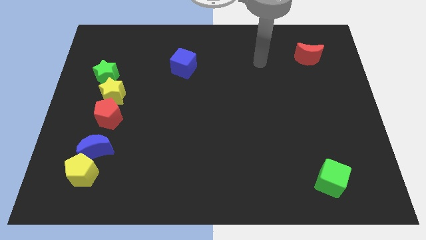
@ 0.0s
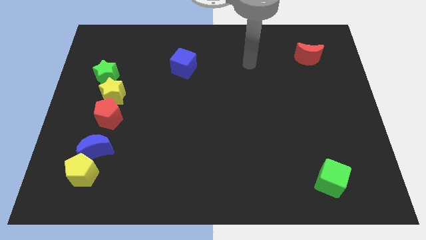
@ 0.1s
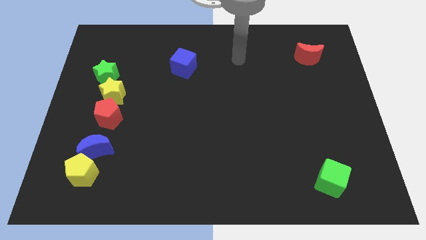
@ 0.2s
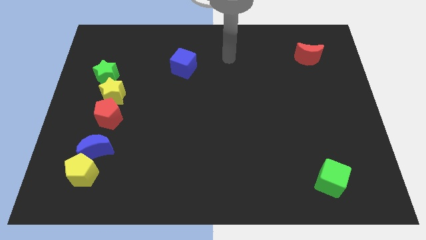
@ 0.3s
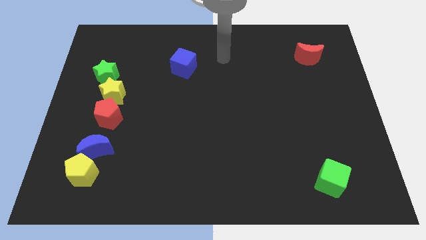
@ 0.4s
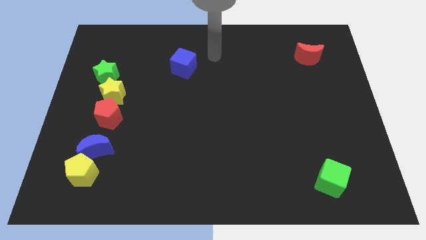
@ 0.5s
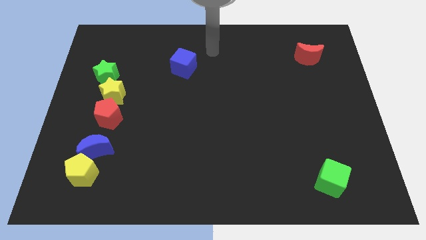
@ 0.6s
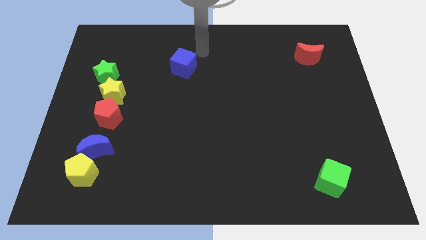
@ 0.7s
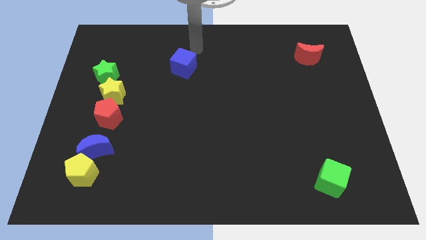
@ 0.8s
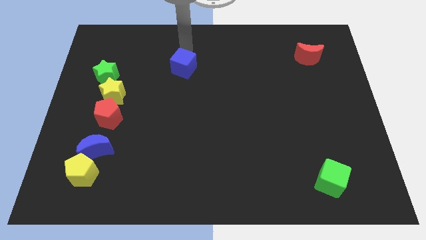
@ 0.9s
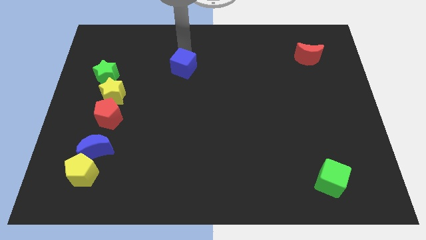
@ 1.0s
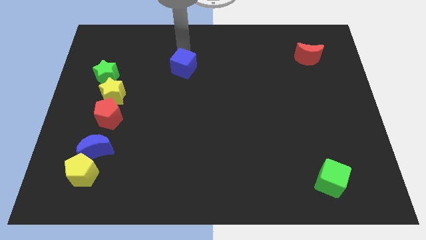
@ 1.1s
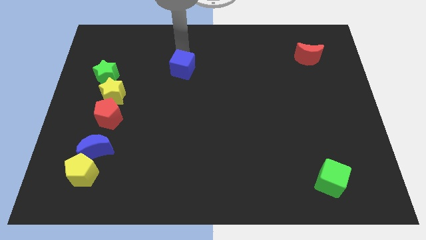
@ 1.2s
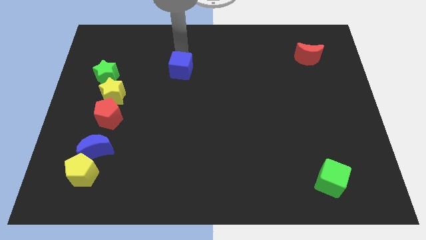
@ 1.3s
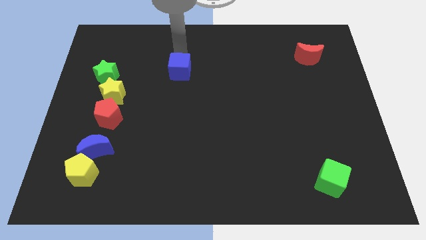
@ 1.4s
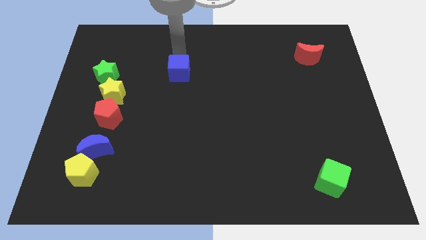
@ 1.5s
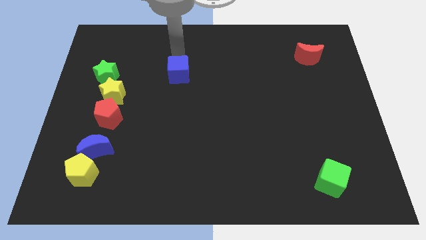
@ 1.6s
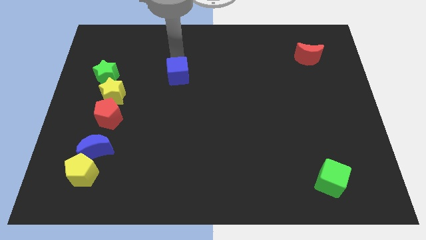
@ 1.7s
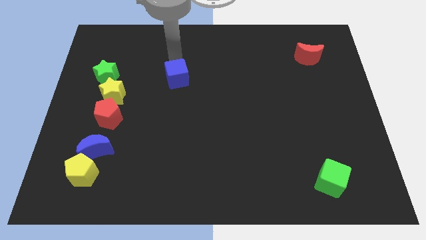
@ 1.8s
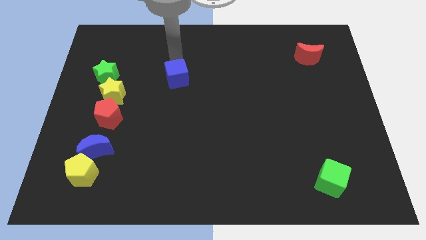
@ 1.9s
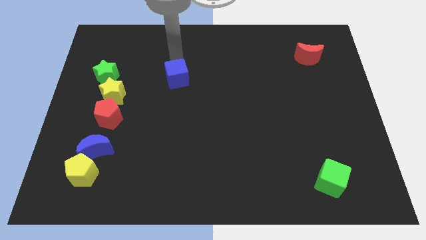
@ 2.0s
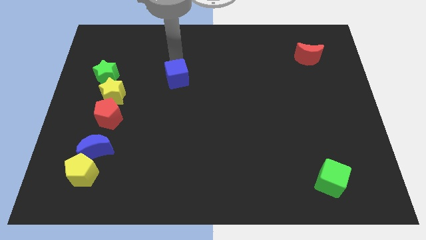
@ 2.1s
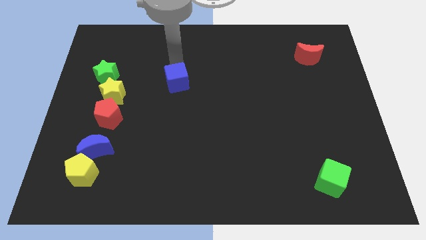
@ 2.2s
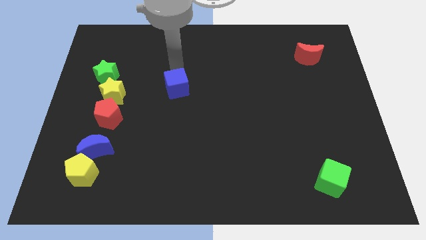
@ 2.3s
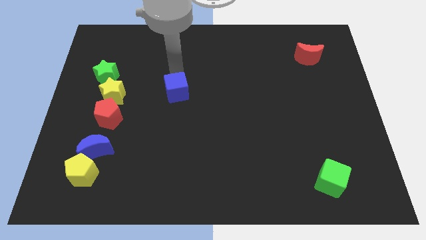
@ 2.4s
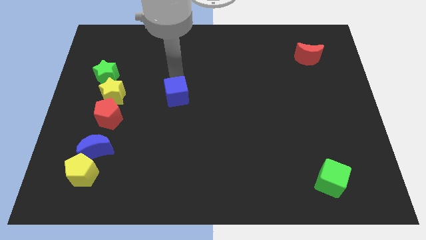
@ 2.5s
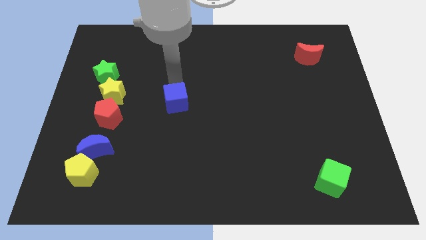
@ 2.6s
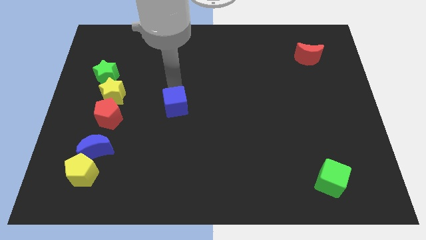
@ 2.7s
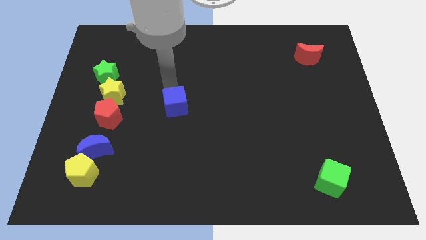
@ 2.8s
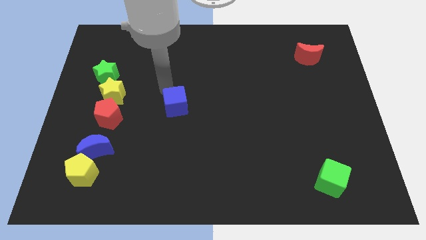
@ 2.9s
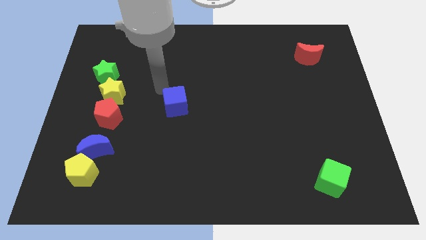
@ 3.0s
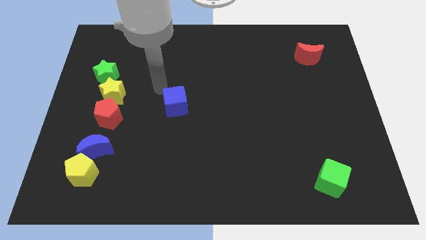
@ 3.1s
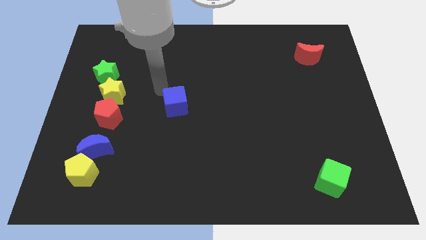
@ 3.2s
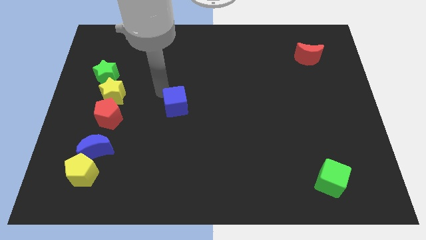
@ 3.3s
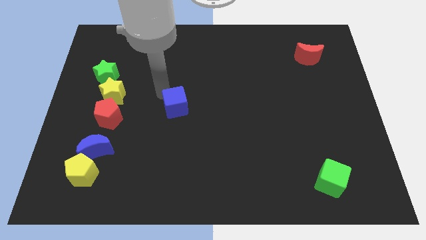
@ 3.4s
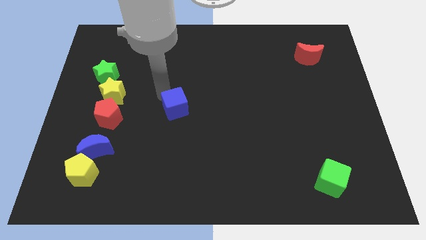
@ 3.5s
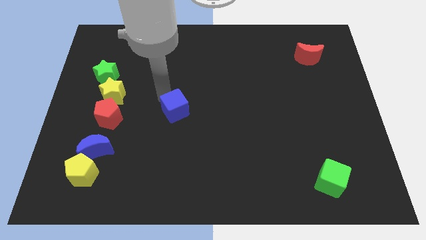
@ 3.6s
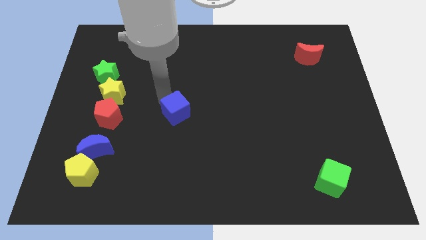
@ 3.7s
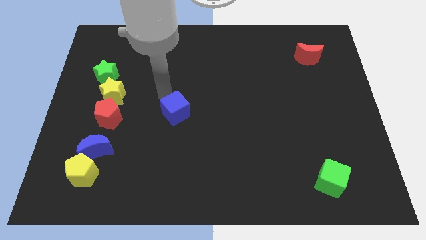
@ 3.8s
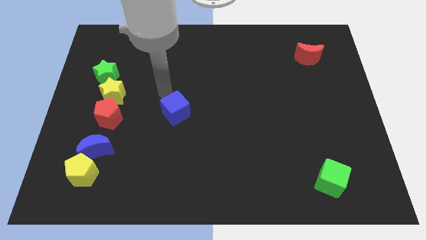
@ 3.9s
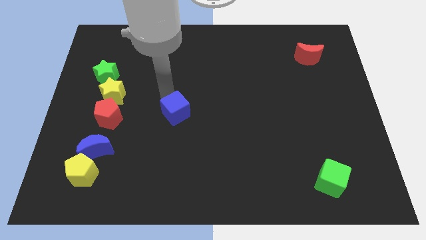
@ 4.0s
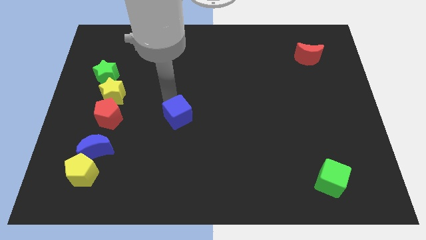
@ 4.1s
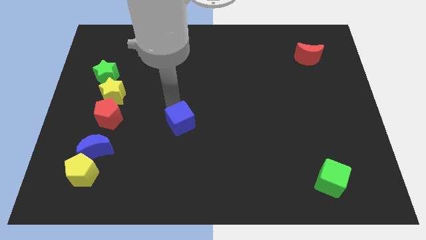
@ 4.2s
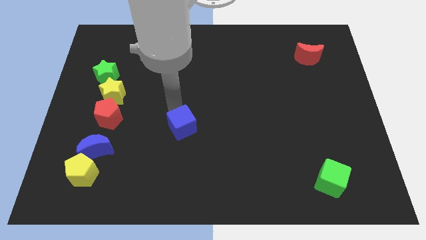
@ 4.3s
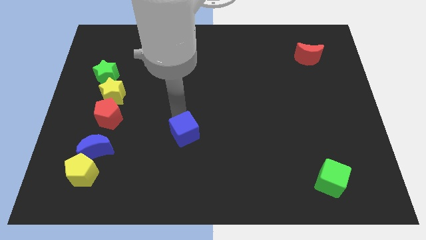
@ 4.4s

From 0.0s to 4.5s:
move the blue cube down

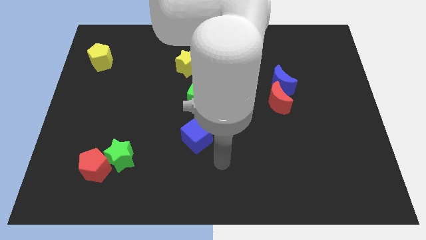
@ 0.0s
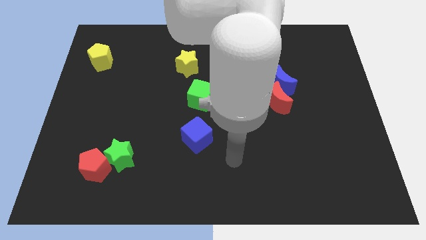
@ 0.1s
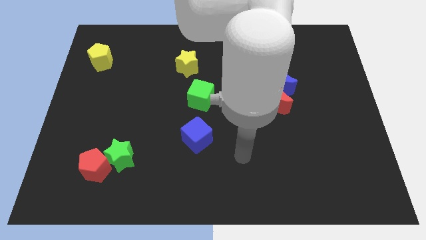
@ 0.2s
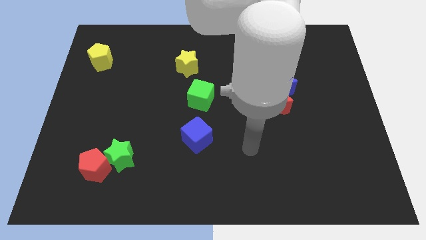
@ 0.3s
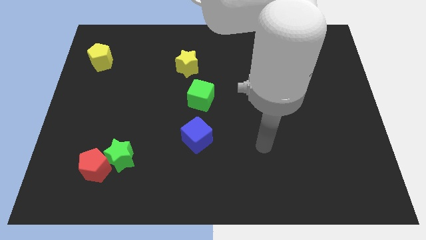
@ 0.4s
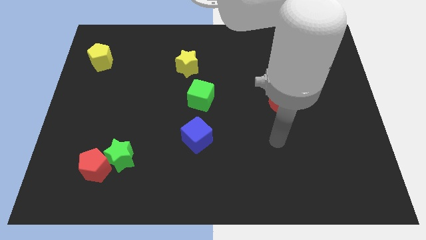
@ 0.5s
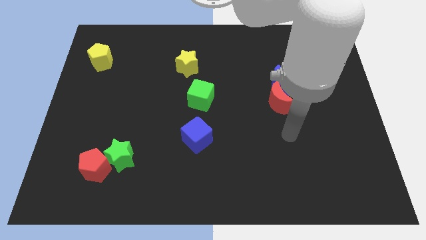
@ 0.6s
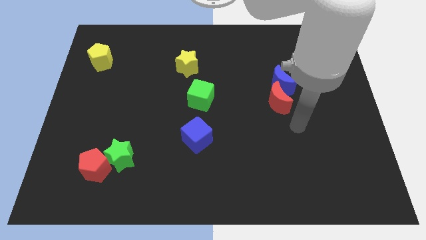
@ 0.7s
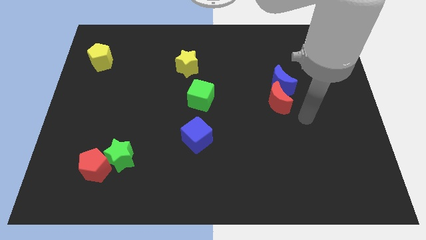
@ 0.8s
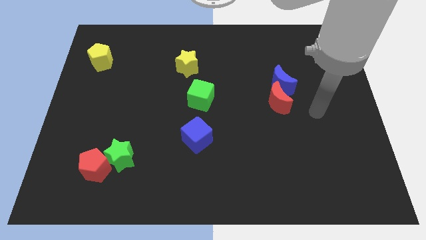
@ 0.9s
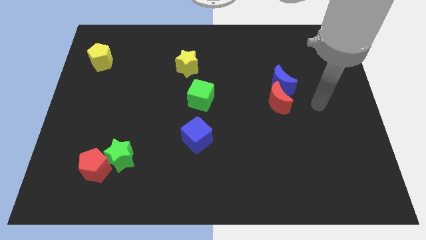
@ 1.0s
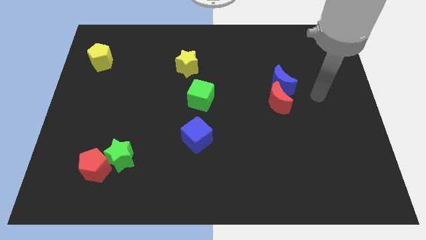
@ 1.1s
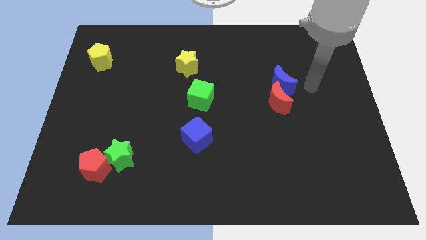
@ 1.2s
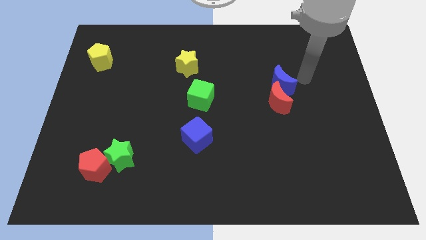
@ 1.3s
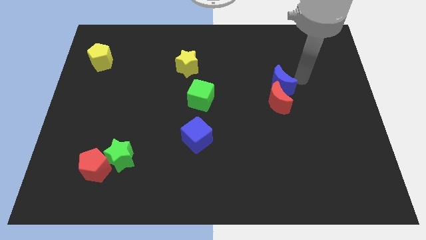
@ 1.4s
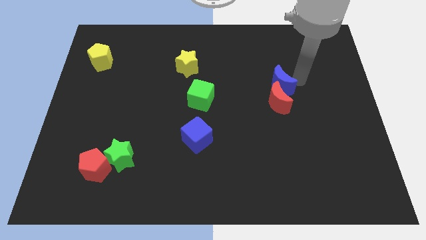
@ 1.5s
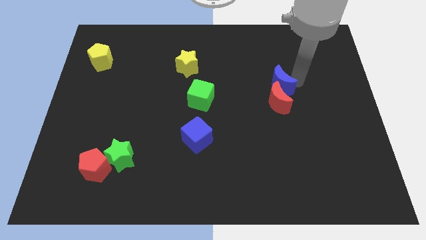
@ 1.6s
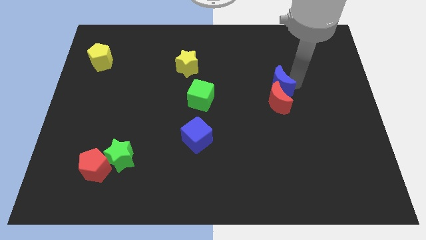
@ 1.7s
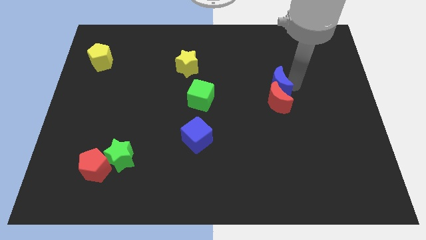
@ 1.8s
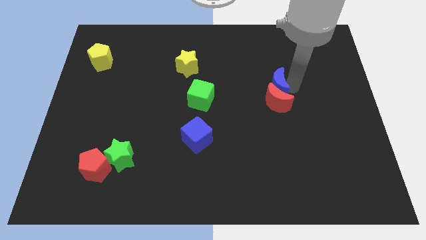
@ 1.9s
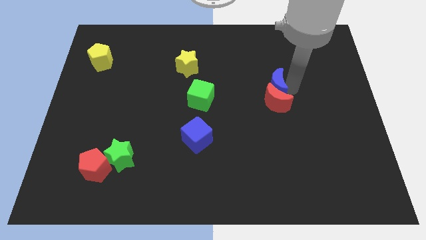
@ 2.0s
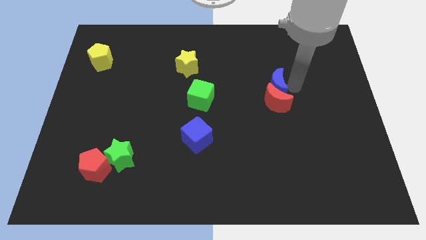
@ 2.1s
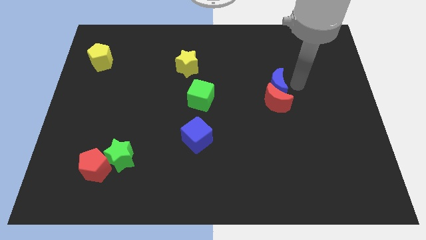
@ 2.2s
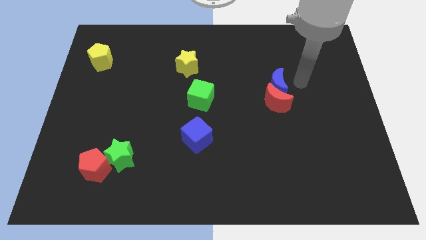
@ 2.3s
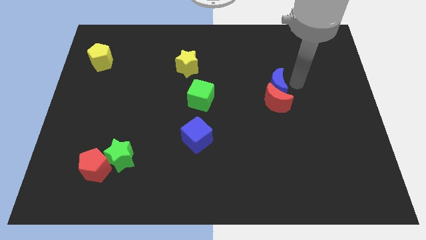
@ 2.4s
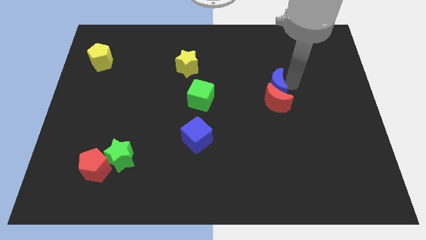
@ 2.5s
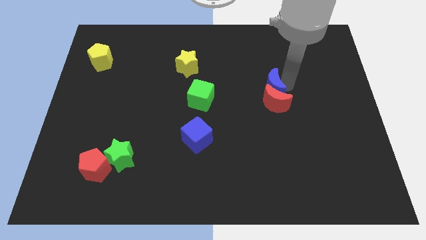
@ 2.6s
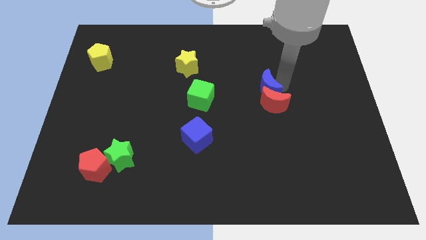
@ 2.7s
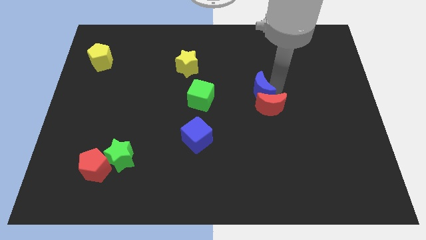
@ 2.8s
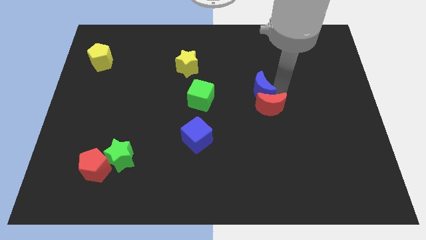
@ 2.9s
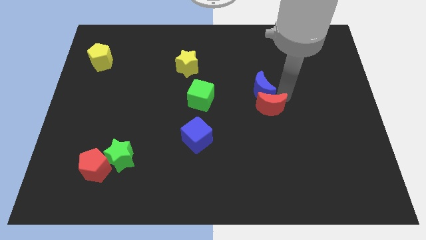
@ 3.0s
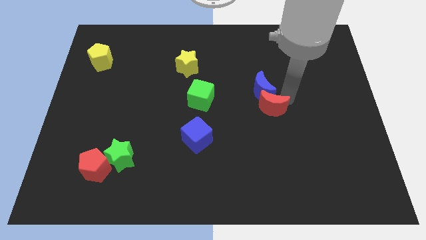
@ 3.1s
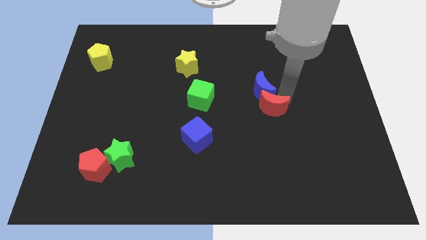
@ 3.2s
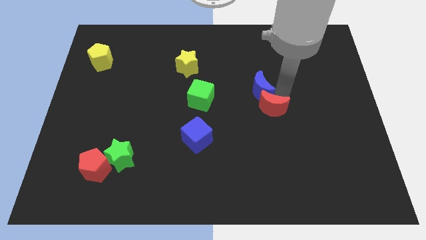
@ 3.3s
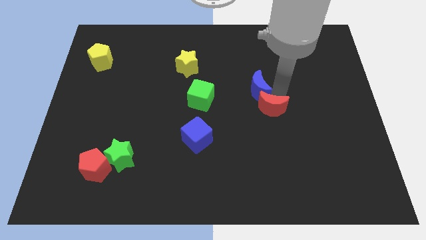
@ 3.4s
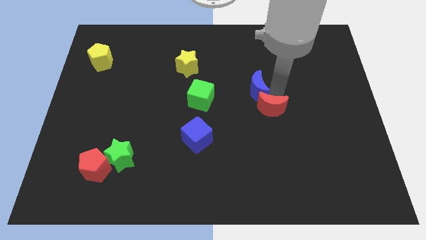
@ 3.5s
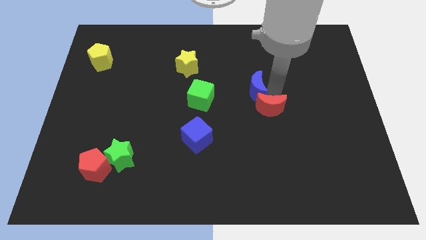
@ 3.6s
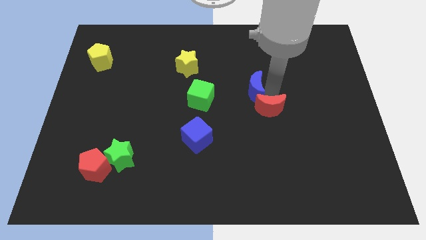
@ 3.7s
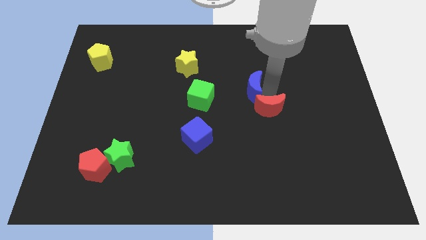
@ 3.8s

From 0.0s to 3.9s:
slightly slide the blue moon left
